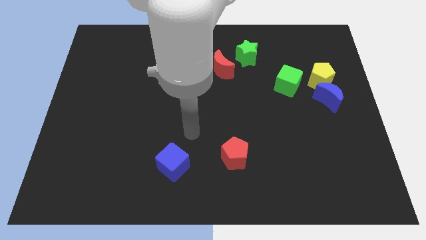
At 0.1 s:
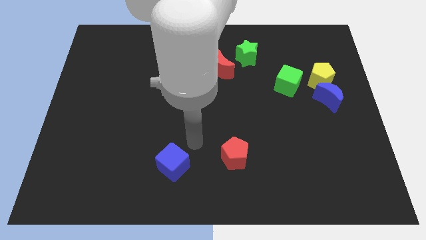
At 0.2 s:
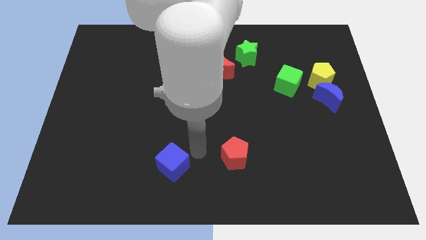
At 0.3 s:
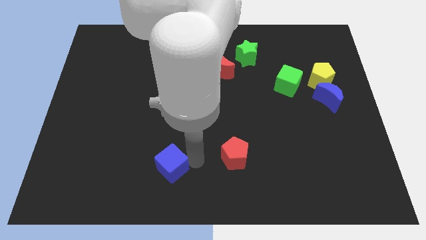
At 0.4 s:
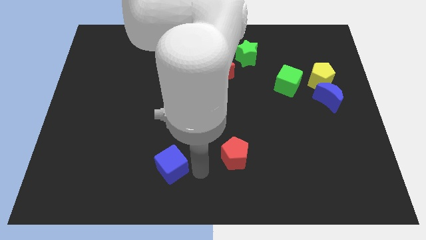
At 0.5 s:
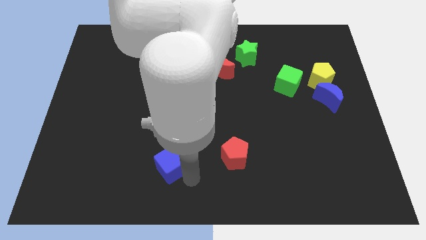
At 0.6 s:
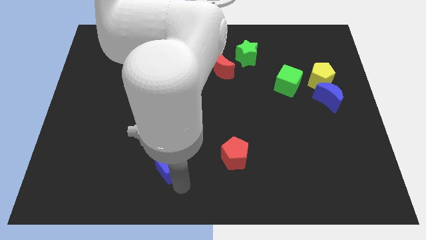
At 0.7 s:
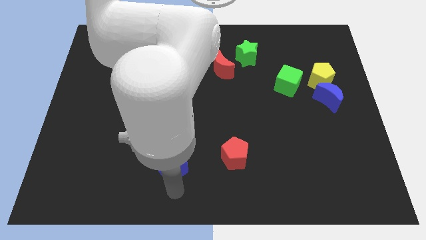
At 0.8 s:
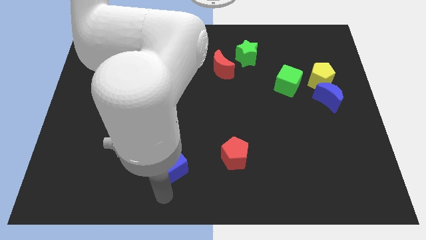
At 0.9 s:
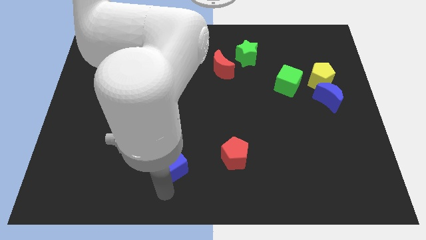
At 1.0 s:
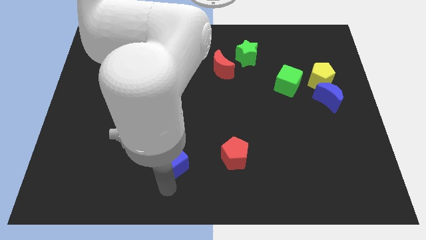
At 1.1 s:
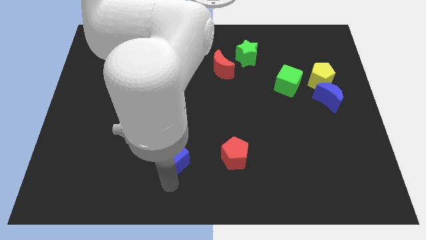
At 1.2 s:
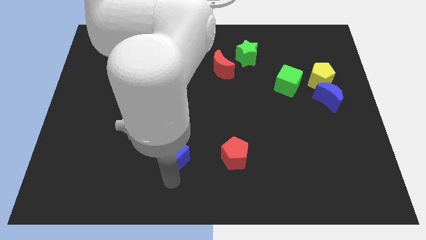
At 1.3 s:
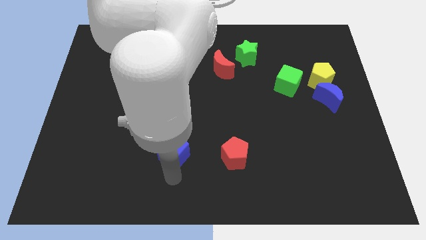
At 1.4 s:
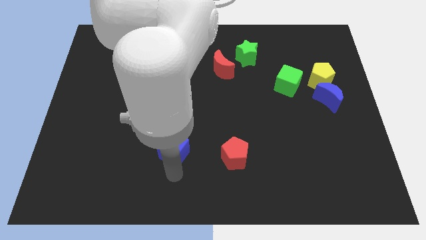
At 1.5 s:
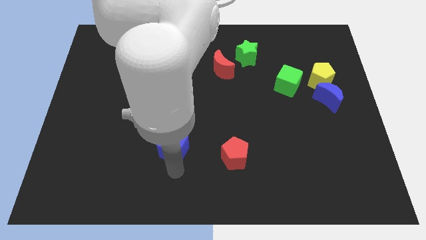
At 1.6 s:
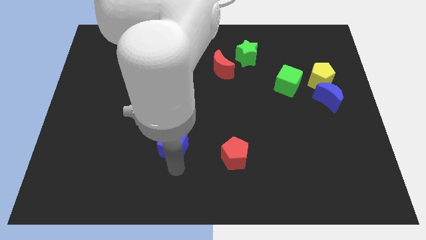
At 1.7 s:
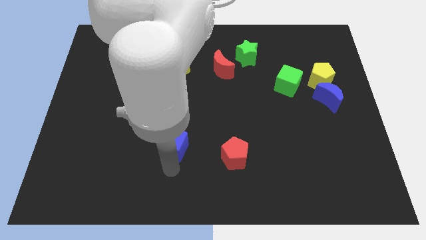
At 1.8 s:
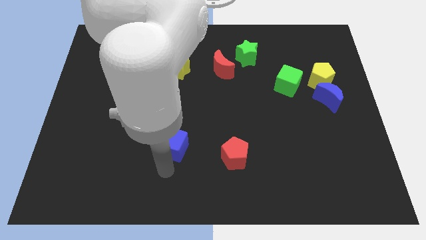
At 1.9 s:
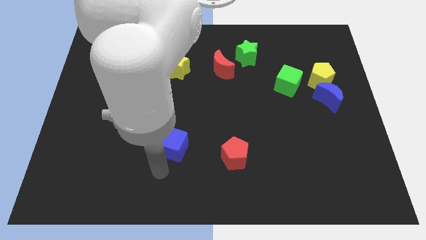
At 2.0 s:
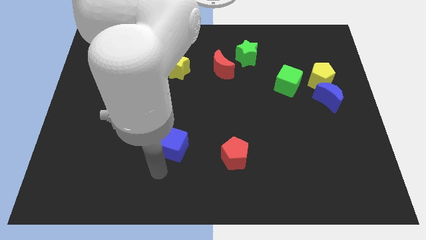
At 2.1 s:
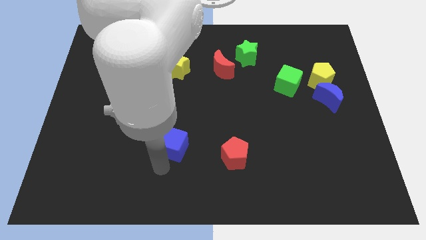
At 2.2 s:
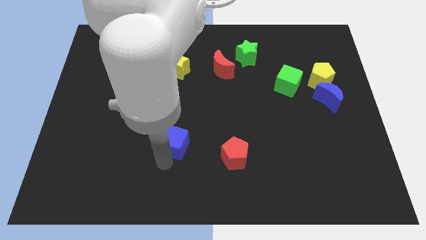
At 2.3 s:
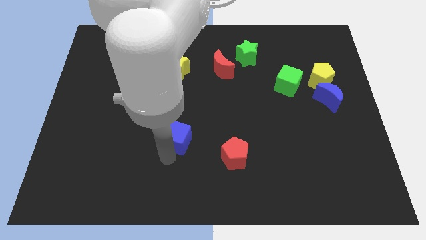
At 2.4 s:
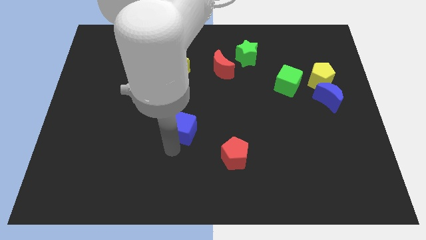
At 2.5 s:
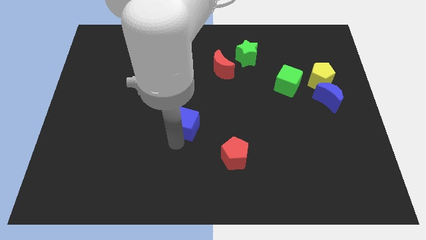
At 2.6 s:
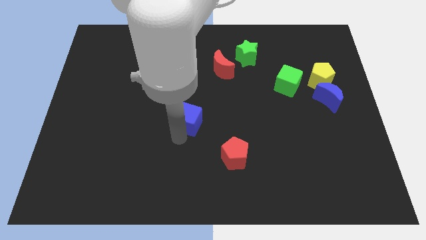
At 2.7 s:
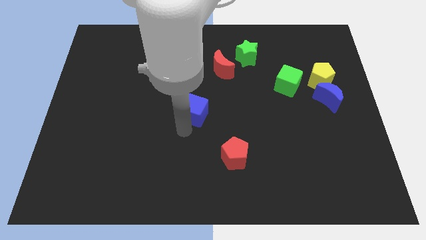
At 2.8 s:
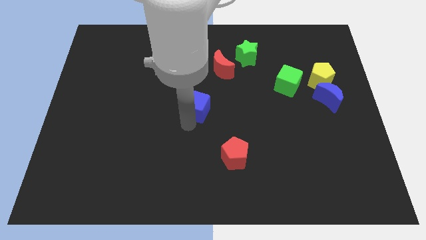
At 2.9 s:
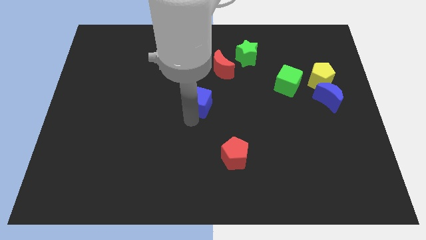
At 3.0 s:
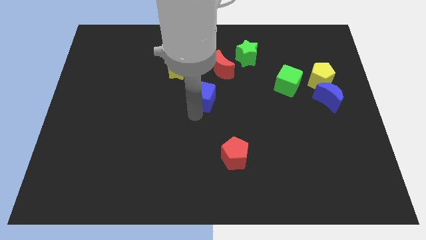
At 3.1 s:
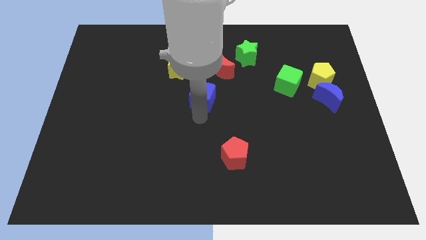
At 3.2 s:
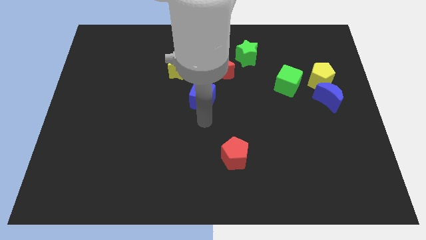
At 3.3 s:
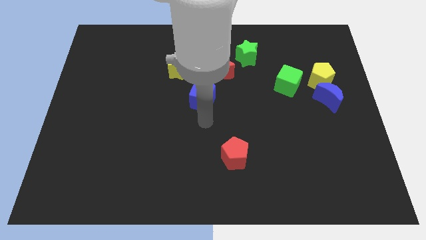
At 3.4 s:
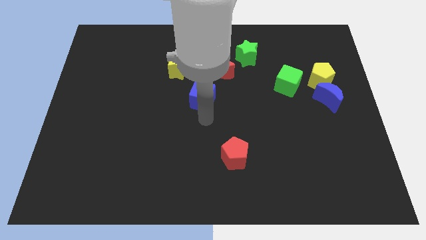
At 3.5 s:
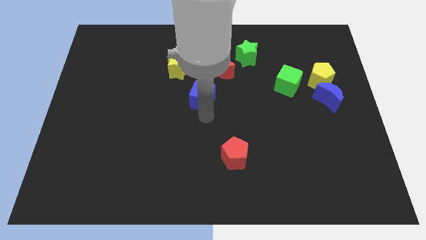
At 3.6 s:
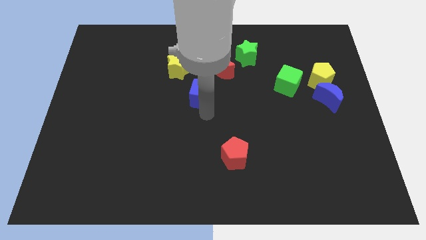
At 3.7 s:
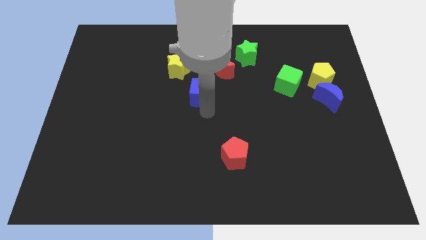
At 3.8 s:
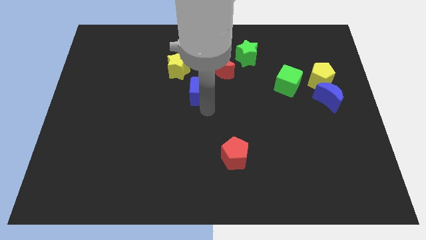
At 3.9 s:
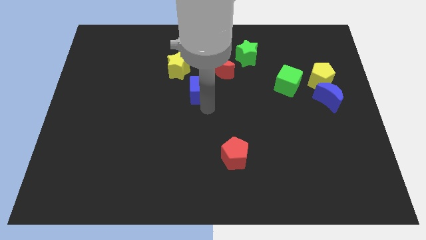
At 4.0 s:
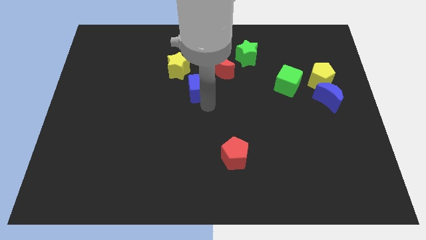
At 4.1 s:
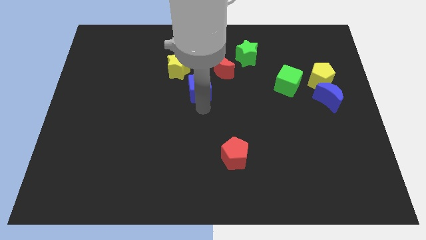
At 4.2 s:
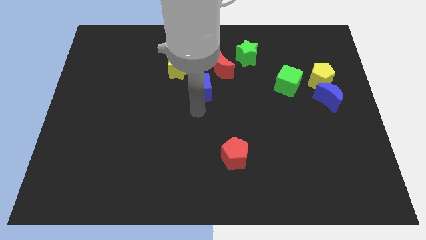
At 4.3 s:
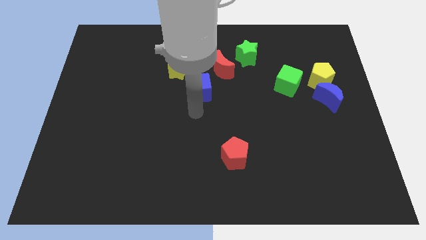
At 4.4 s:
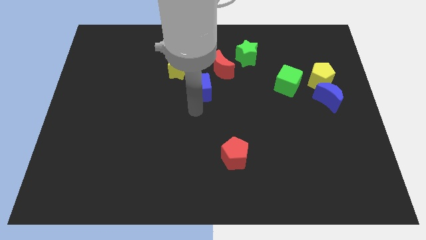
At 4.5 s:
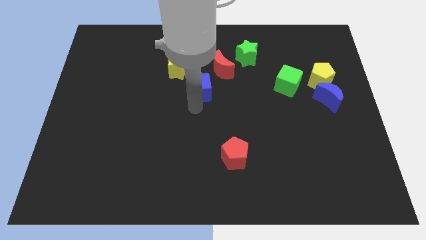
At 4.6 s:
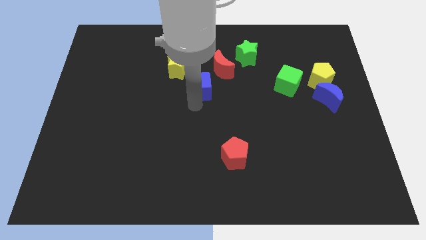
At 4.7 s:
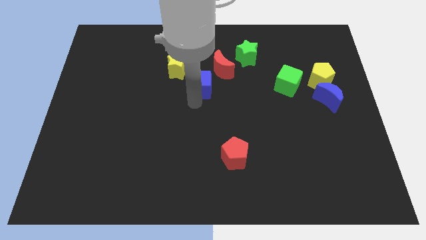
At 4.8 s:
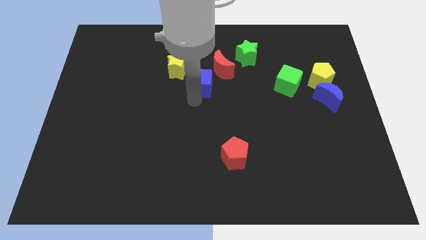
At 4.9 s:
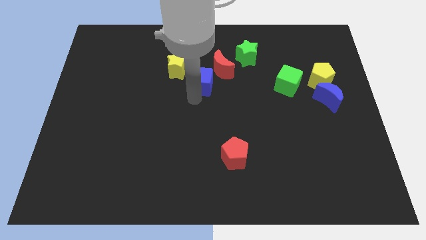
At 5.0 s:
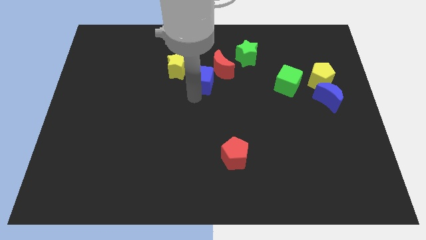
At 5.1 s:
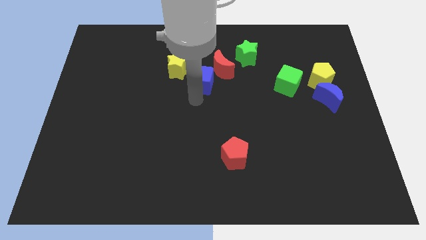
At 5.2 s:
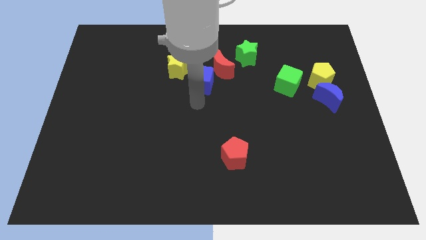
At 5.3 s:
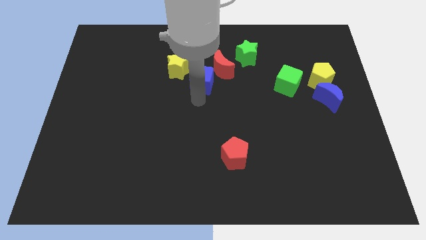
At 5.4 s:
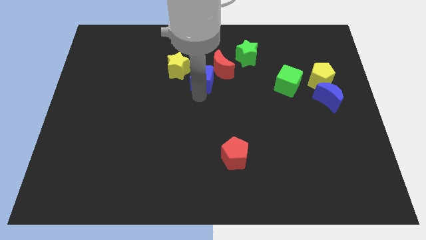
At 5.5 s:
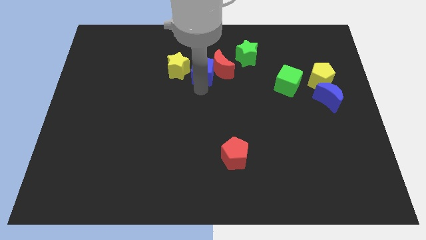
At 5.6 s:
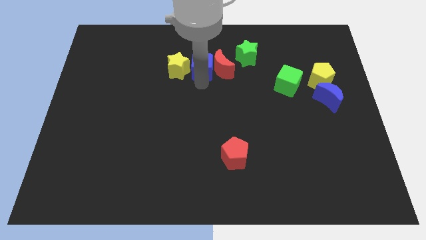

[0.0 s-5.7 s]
push the blue cube just left of the green star

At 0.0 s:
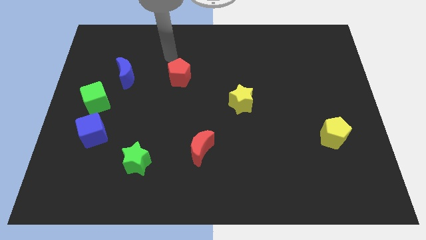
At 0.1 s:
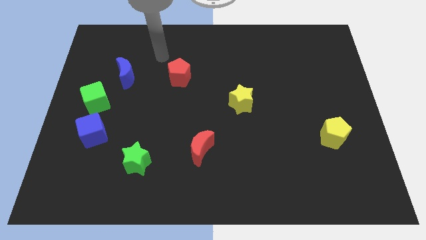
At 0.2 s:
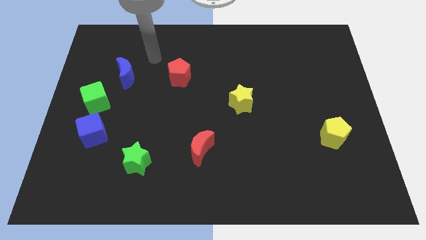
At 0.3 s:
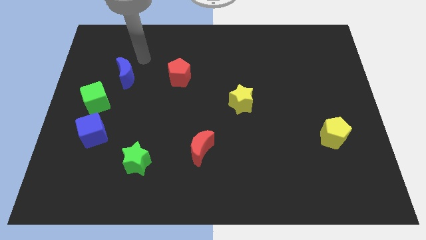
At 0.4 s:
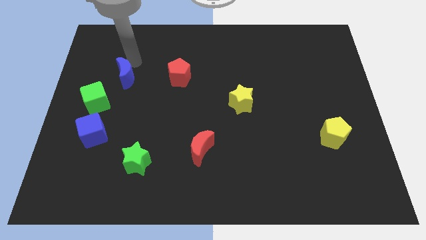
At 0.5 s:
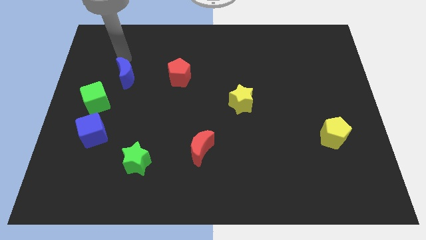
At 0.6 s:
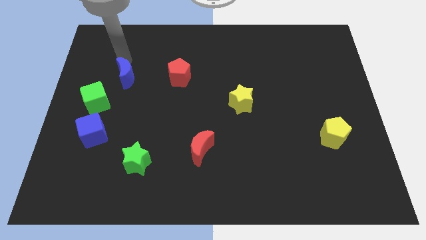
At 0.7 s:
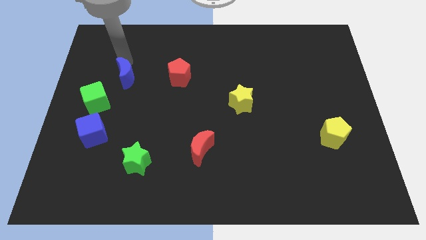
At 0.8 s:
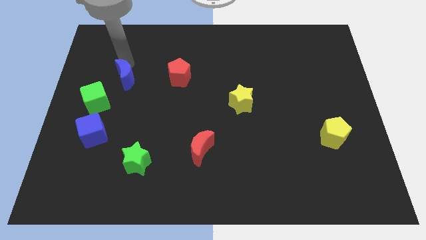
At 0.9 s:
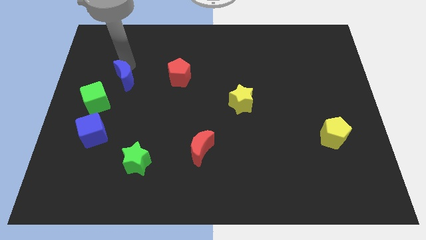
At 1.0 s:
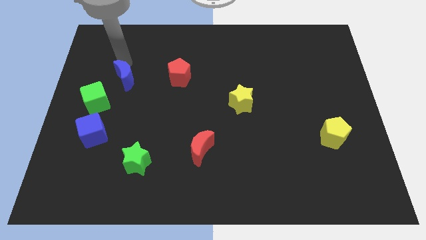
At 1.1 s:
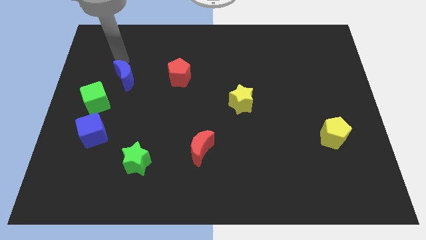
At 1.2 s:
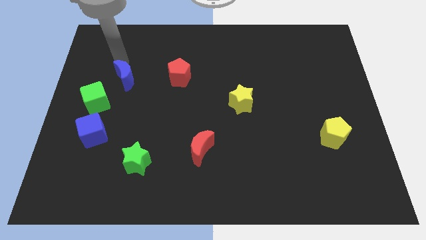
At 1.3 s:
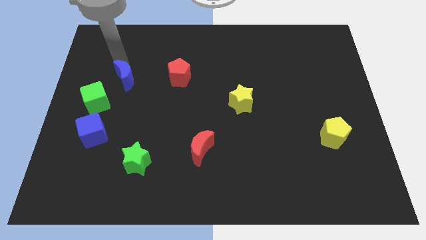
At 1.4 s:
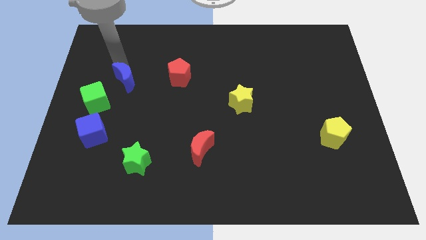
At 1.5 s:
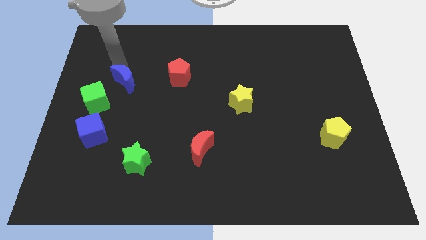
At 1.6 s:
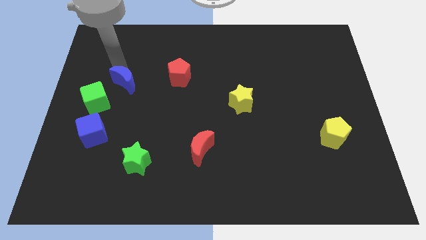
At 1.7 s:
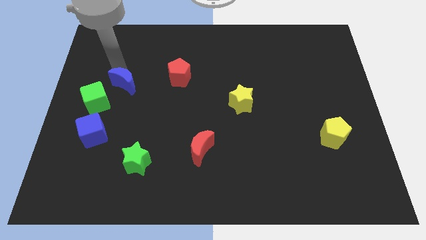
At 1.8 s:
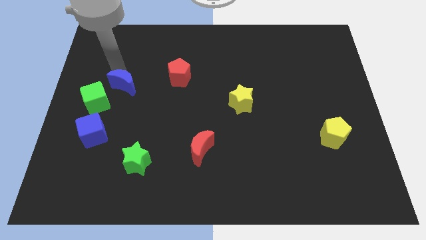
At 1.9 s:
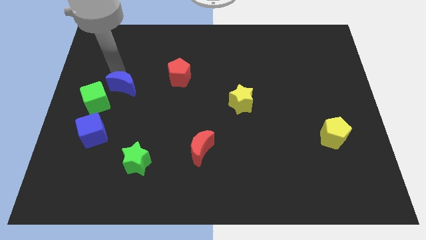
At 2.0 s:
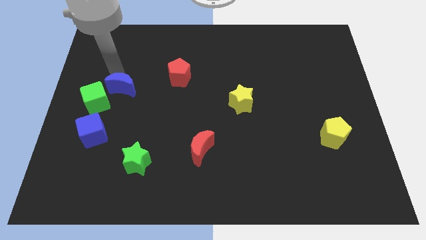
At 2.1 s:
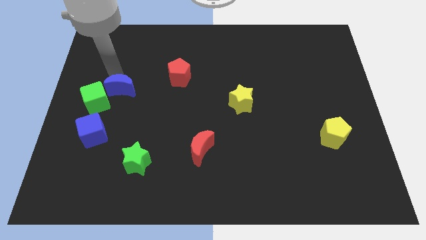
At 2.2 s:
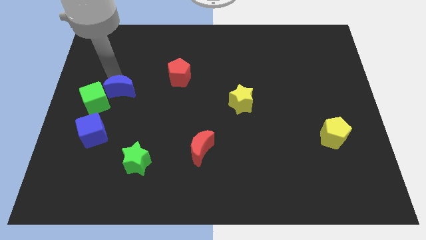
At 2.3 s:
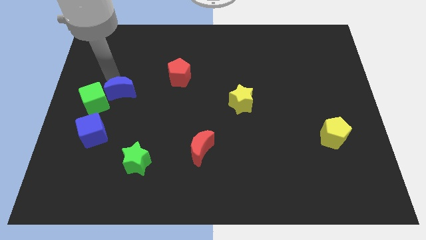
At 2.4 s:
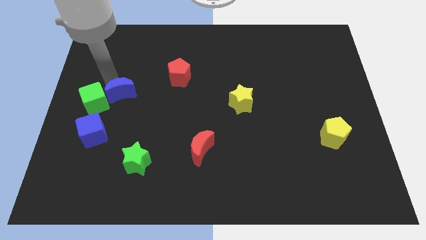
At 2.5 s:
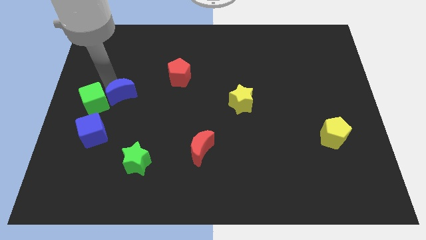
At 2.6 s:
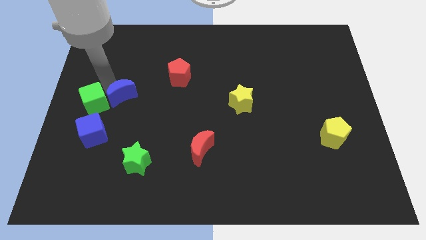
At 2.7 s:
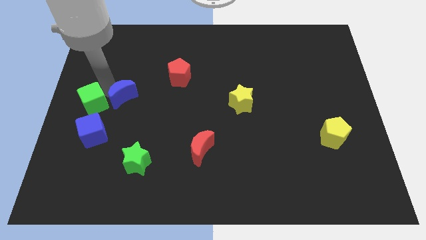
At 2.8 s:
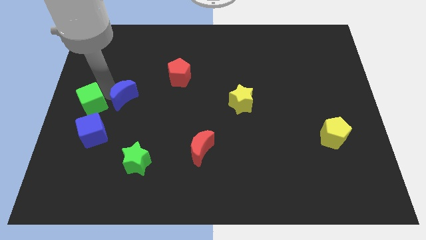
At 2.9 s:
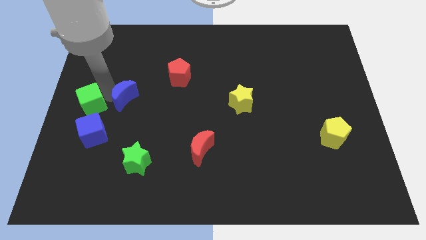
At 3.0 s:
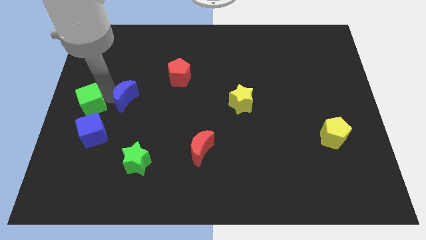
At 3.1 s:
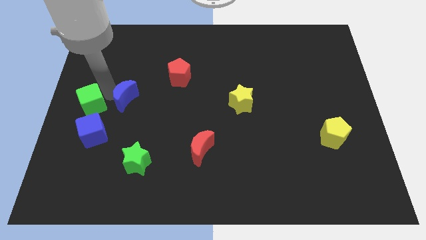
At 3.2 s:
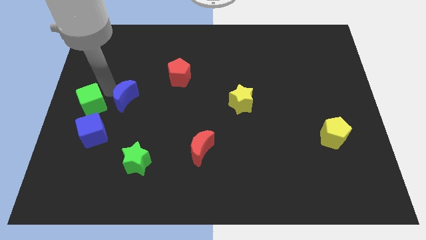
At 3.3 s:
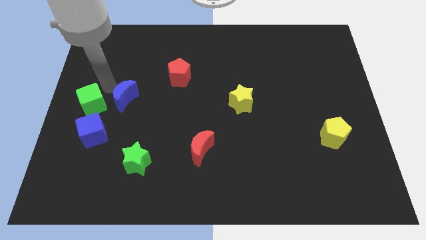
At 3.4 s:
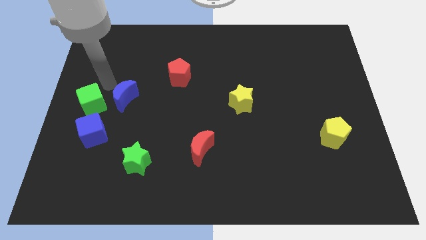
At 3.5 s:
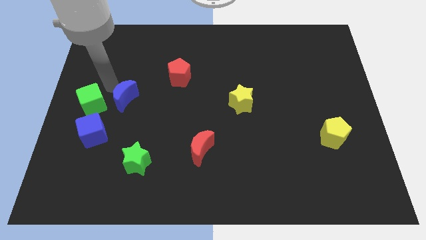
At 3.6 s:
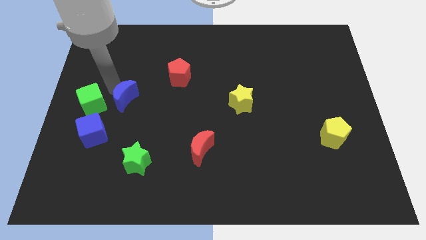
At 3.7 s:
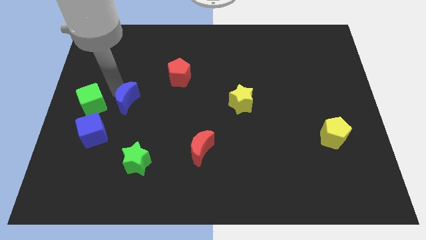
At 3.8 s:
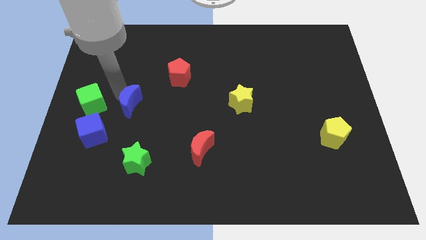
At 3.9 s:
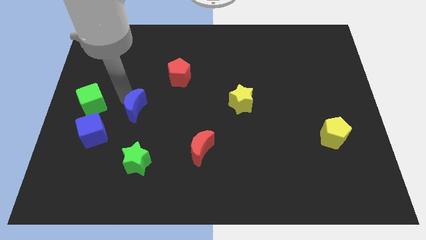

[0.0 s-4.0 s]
slide the blue moon to the top side of the green star
